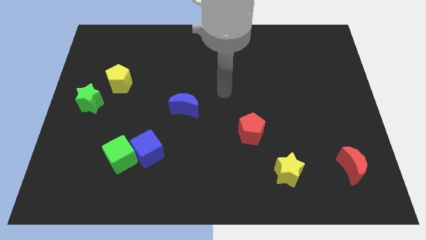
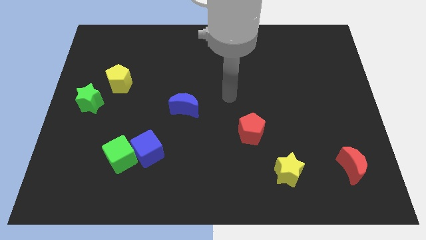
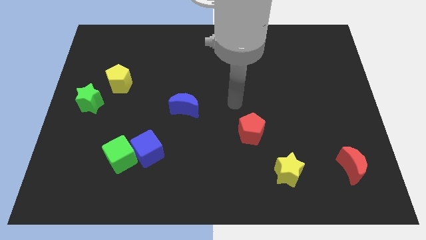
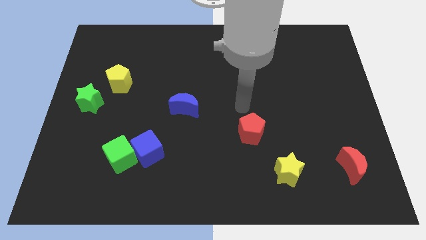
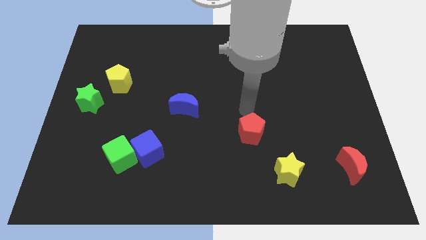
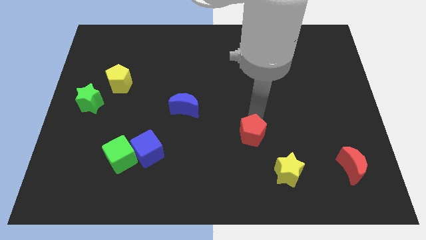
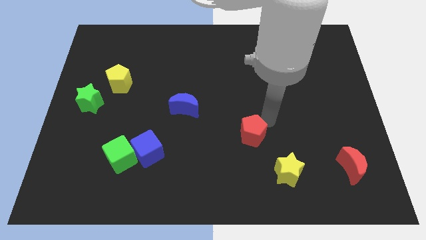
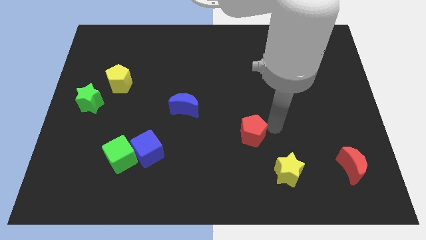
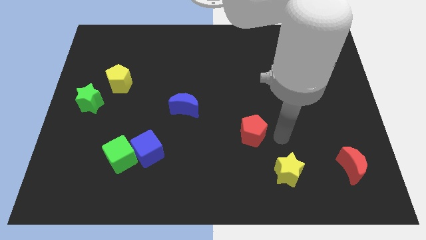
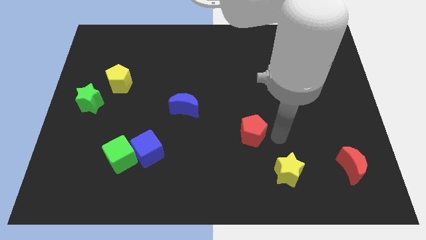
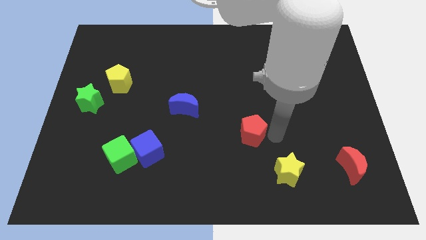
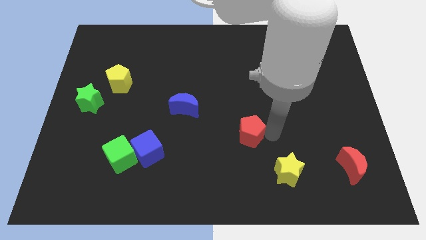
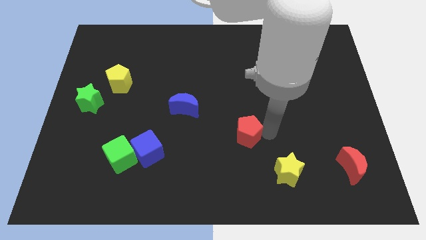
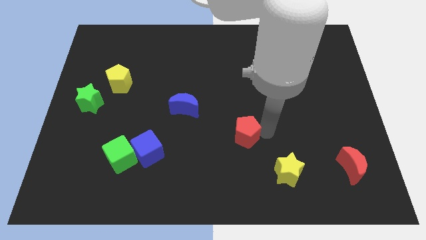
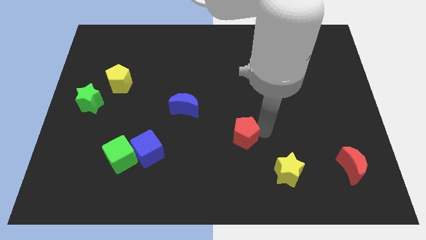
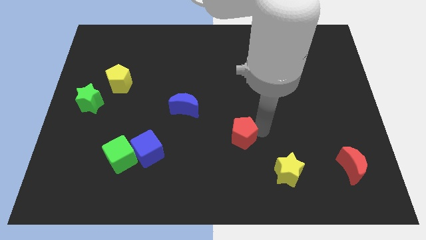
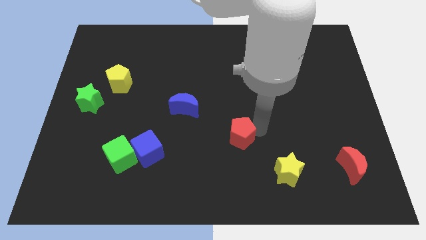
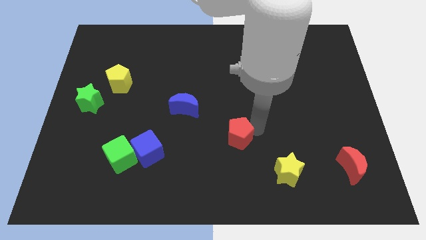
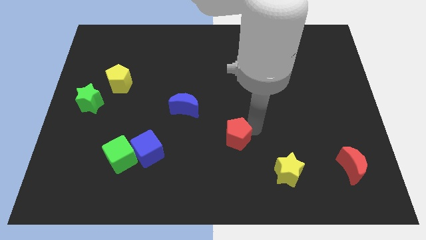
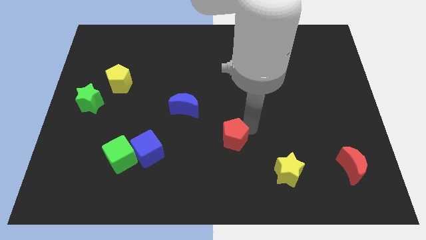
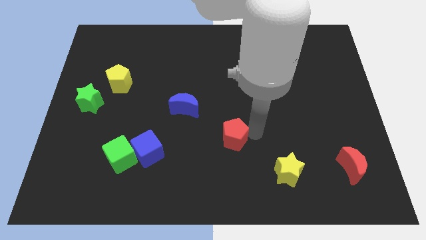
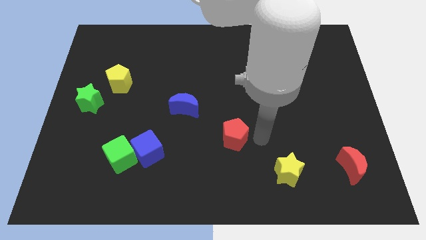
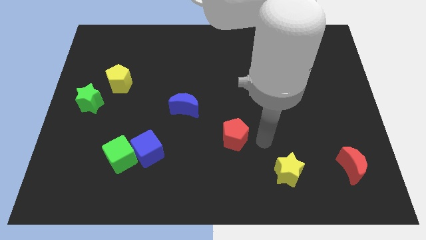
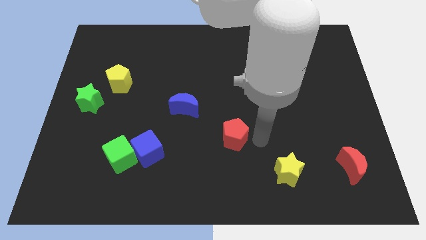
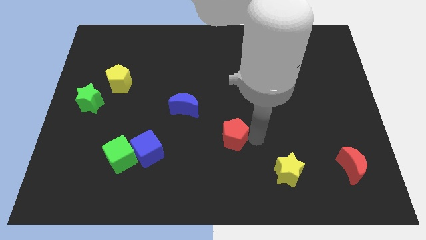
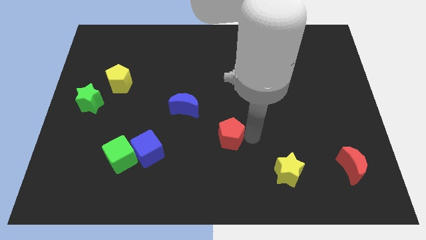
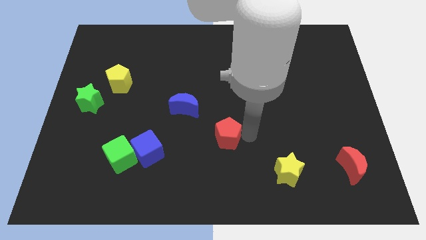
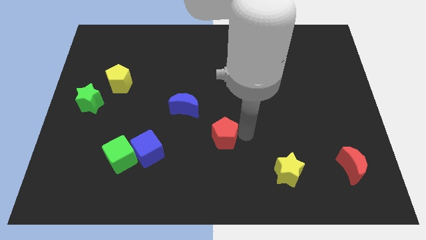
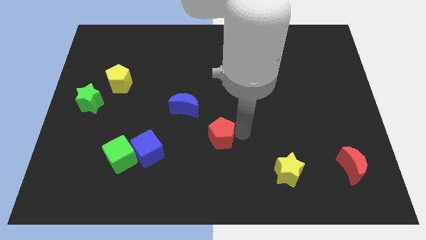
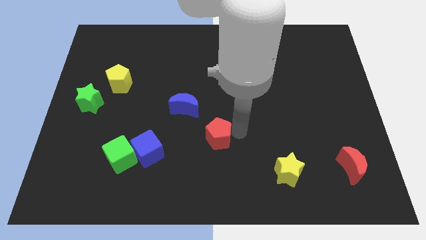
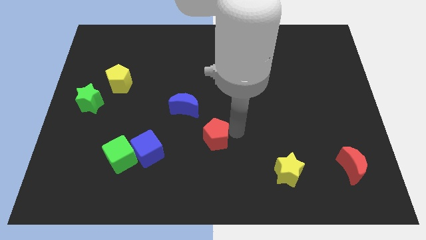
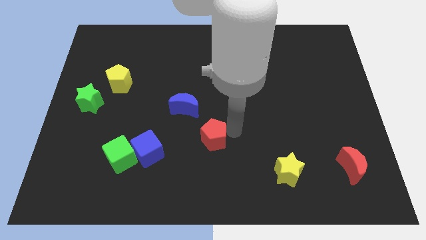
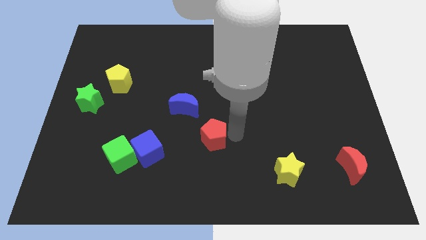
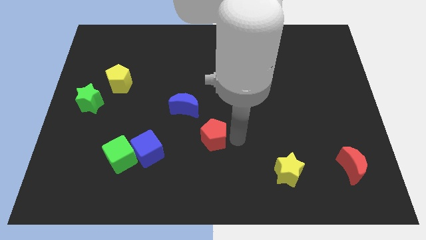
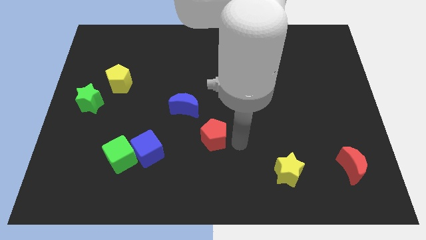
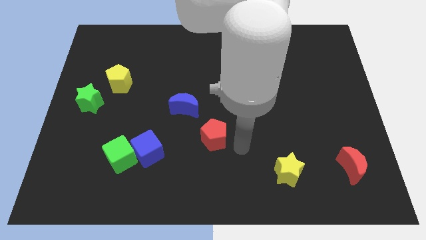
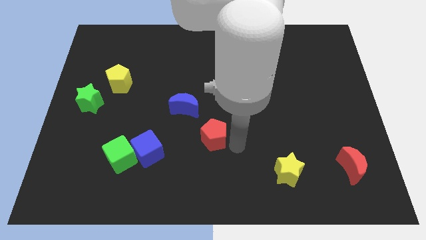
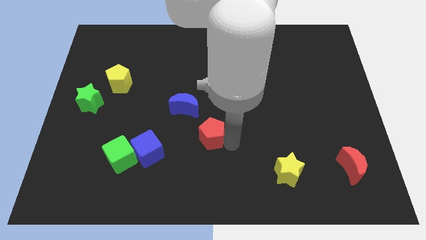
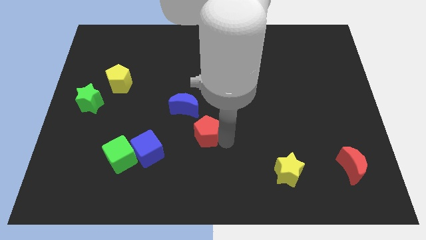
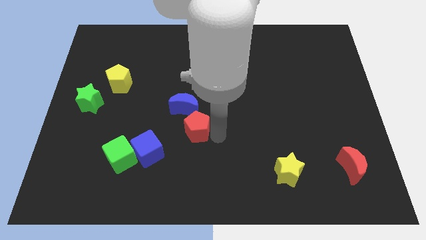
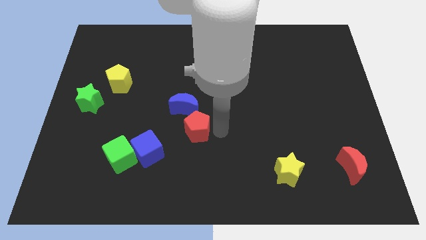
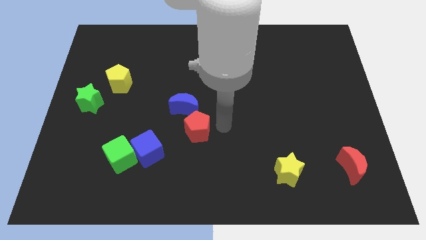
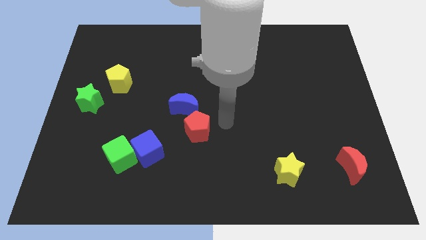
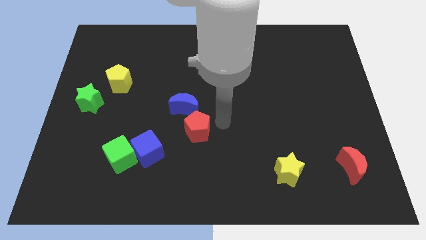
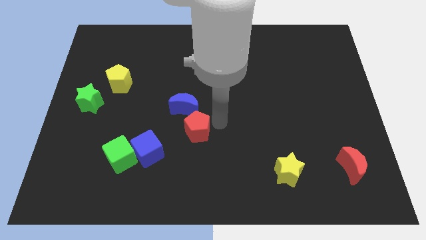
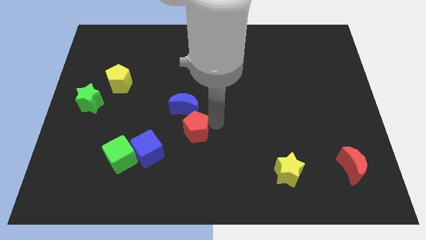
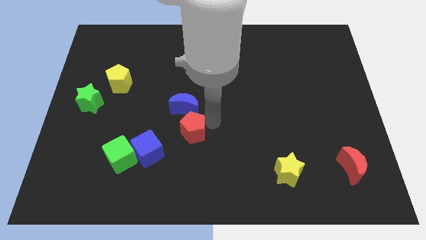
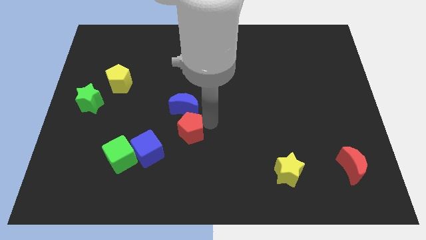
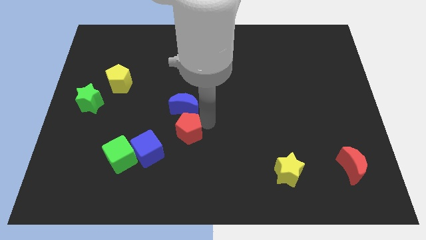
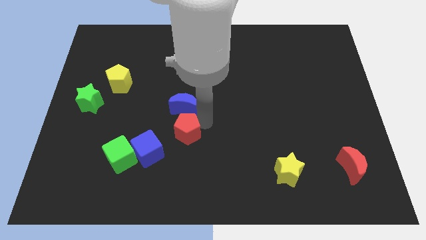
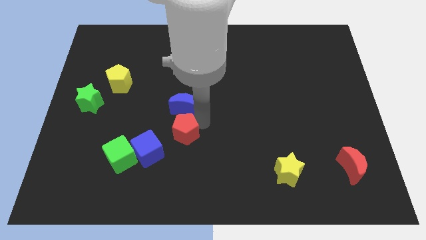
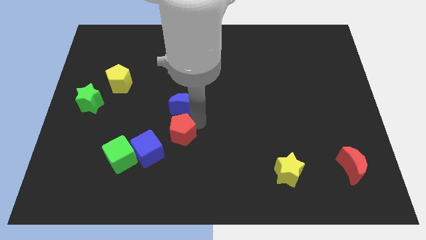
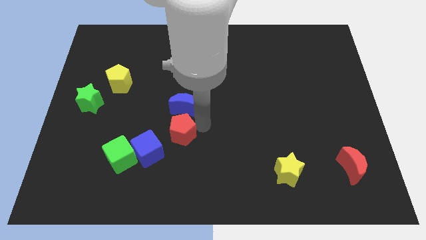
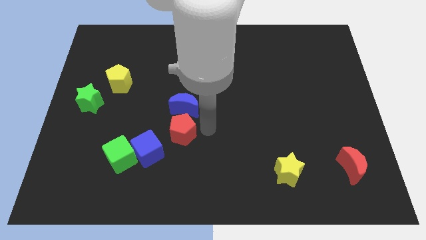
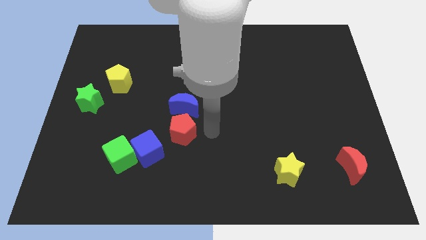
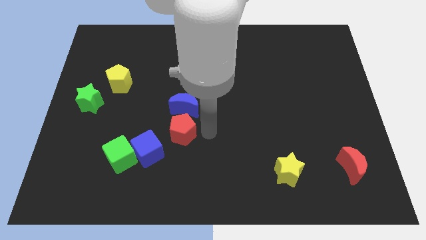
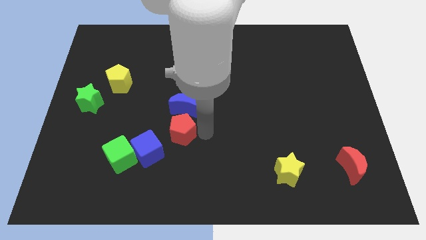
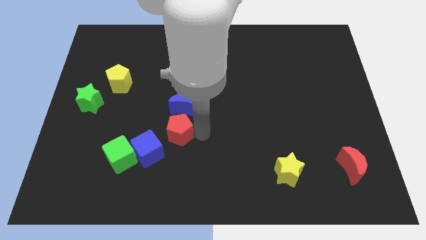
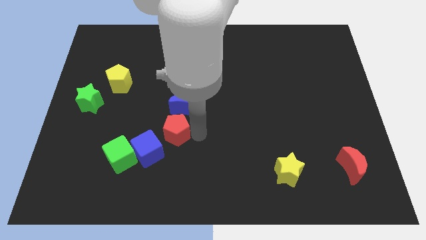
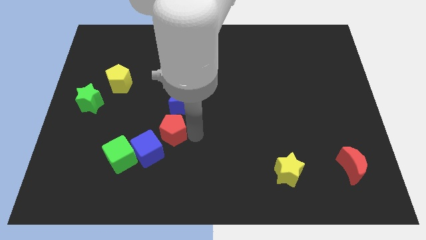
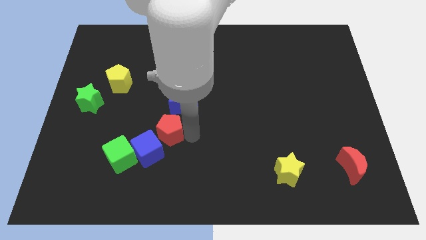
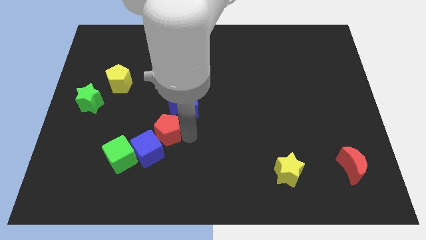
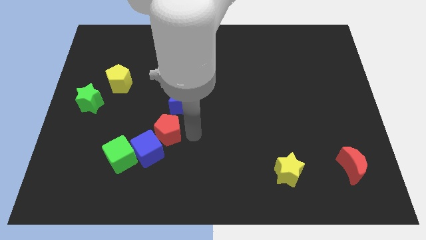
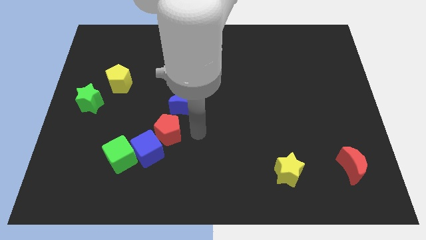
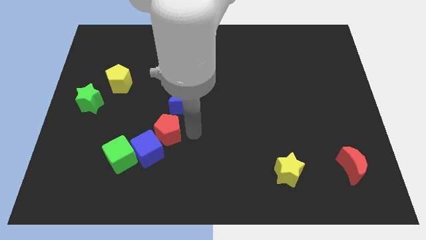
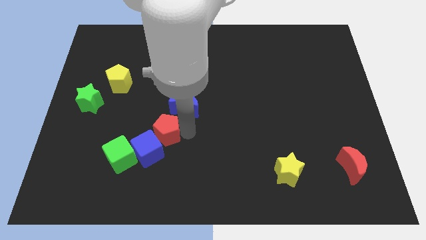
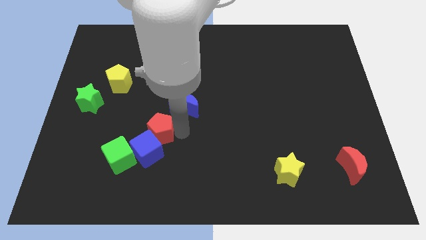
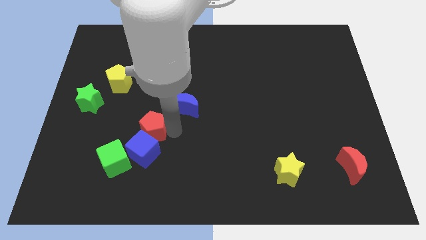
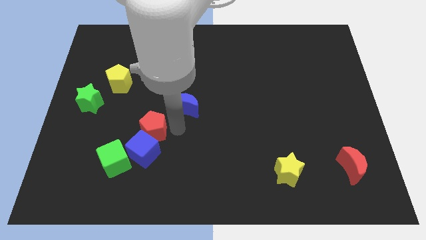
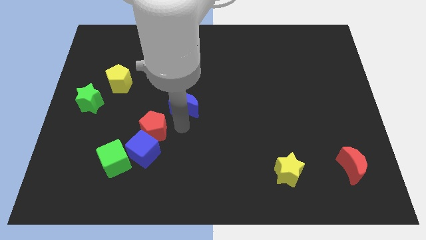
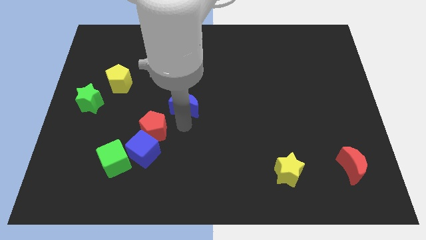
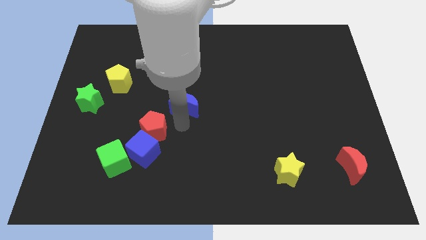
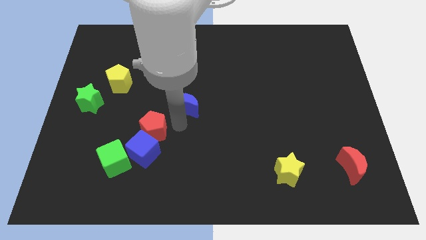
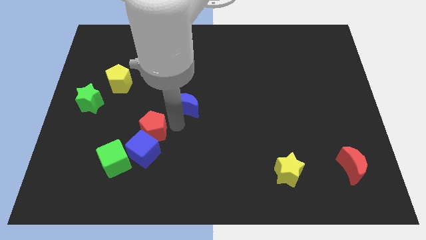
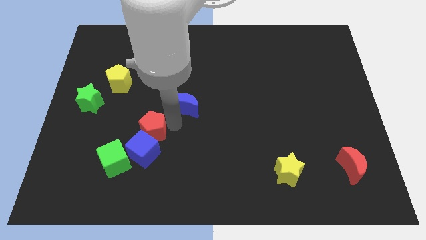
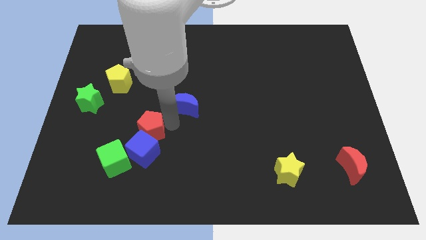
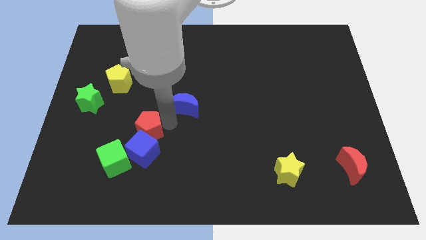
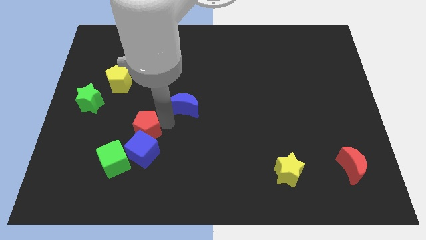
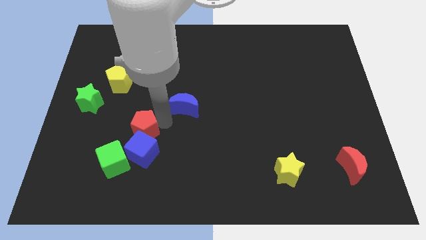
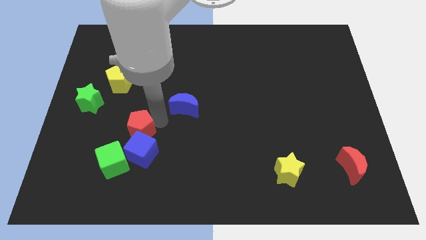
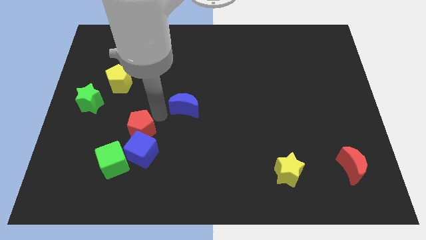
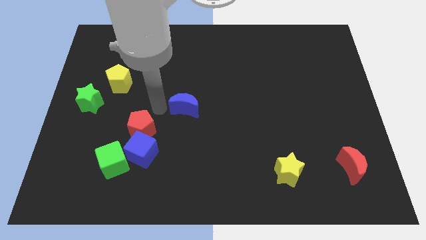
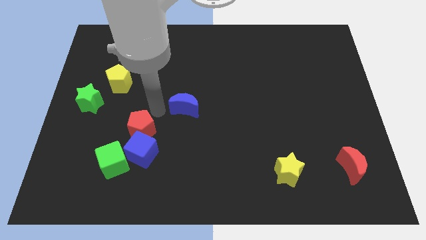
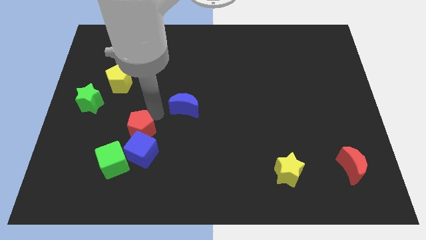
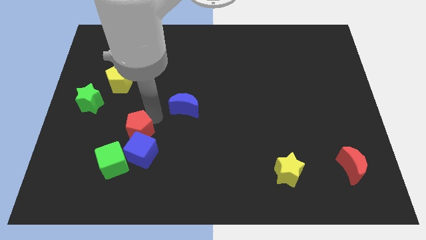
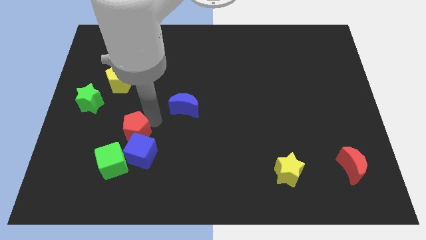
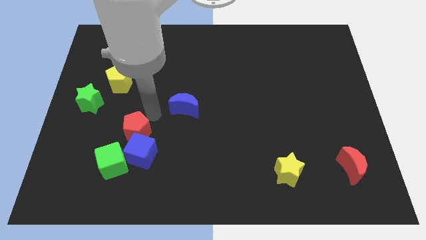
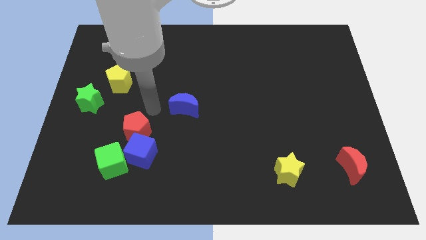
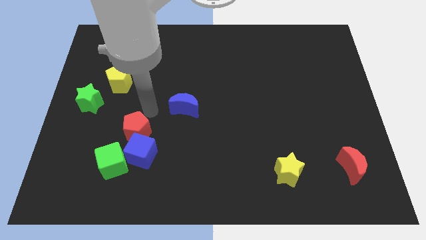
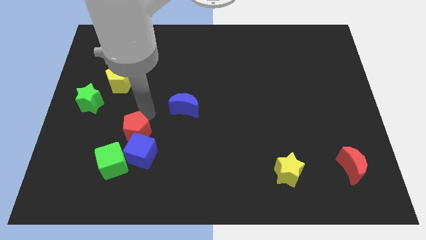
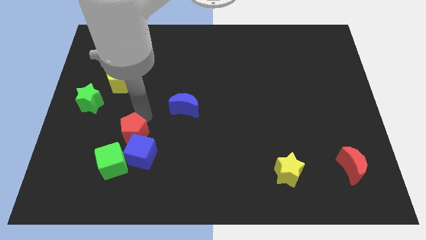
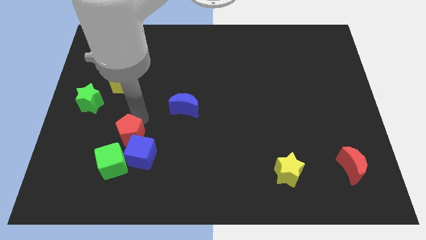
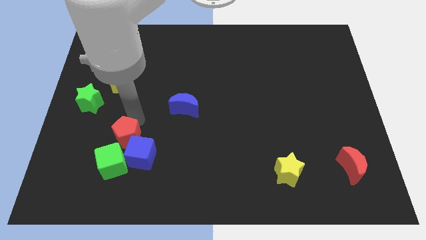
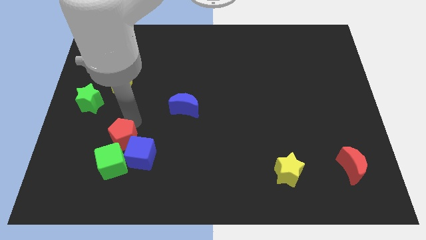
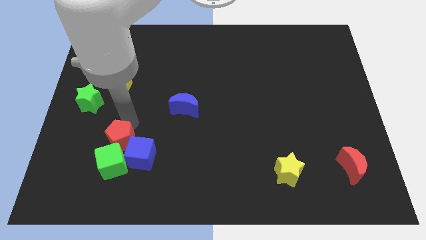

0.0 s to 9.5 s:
move the red pentagon to the green cube
